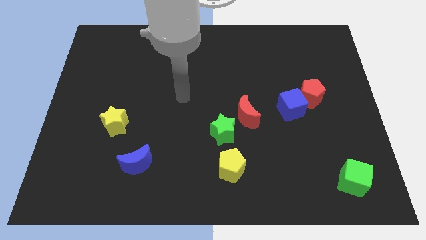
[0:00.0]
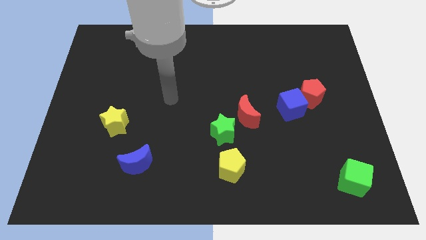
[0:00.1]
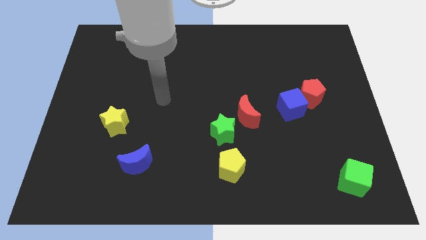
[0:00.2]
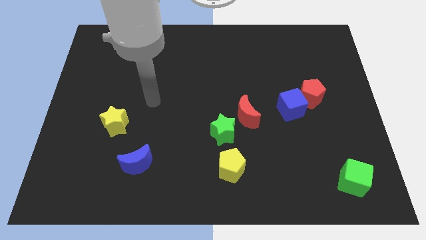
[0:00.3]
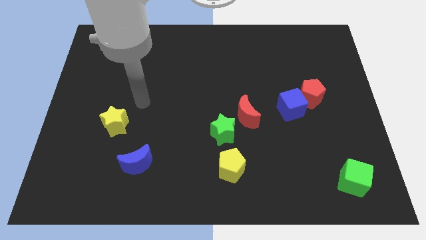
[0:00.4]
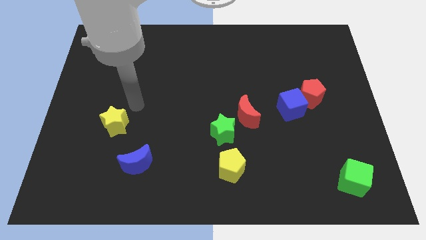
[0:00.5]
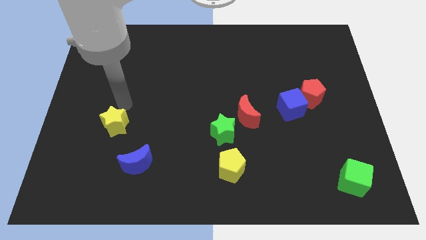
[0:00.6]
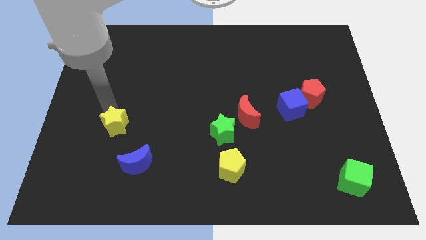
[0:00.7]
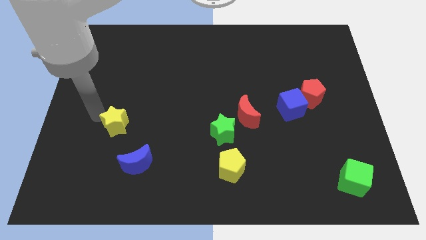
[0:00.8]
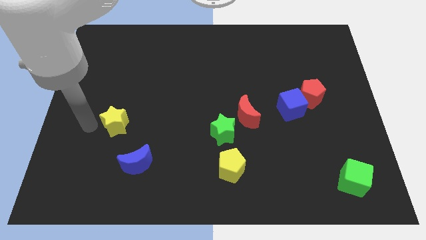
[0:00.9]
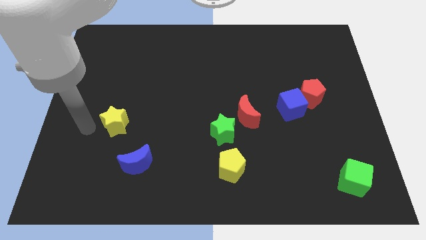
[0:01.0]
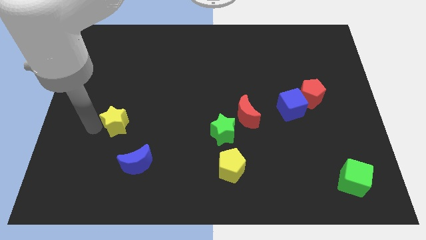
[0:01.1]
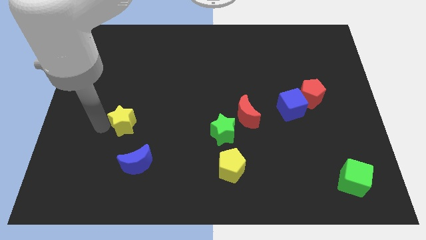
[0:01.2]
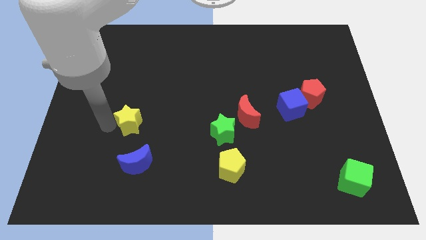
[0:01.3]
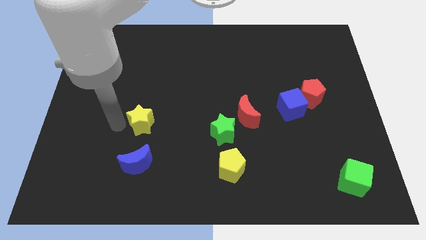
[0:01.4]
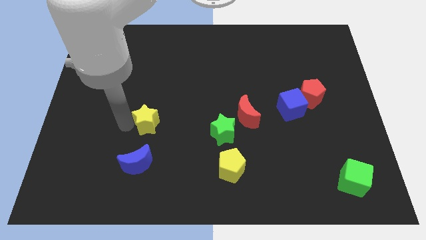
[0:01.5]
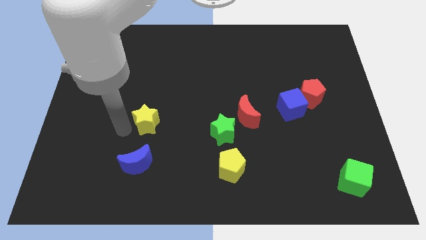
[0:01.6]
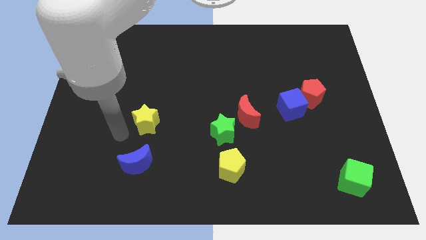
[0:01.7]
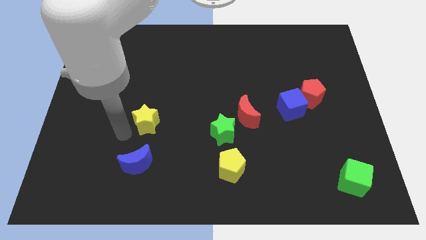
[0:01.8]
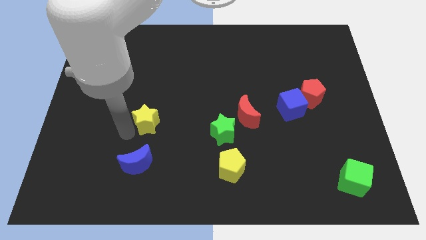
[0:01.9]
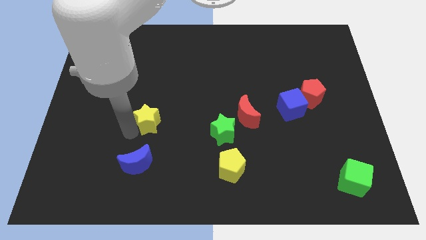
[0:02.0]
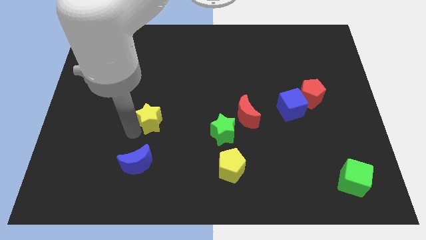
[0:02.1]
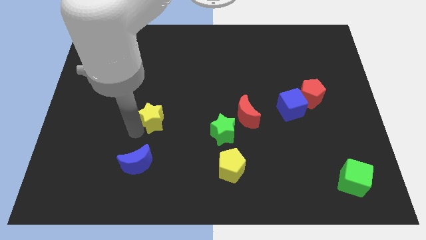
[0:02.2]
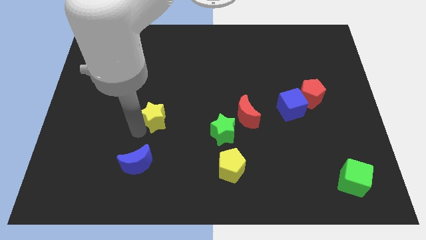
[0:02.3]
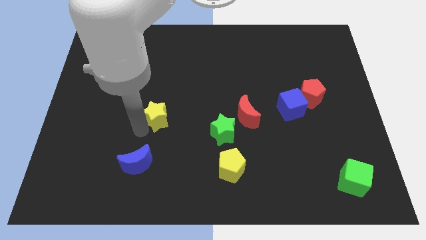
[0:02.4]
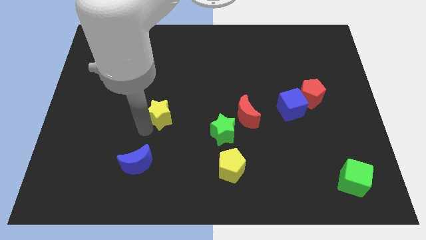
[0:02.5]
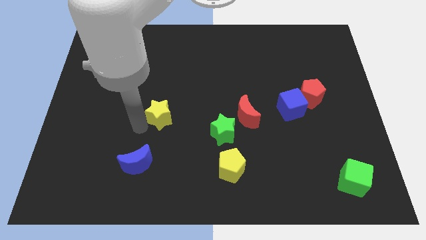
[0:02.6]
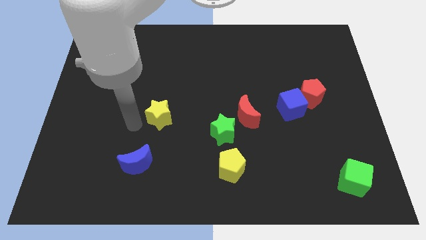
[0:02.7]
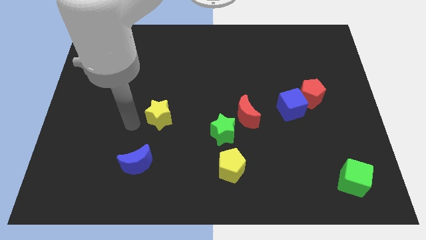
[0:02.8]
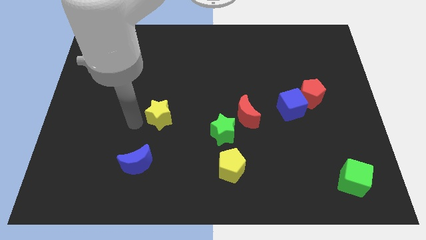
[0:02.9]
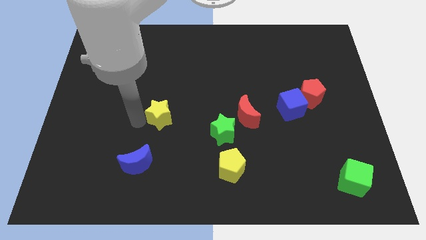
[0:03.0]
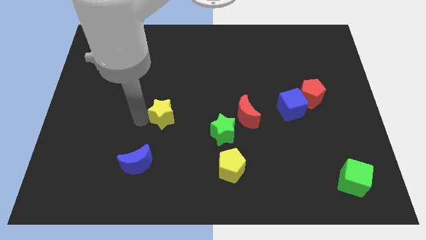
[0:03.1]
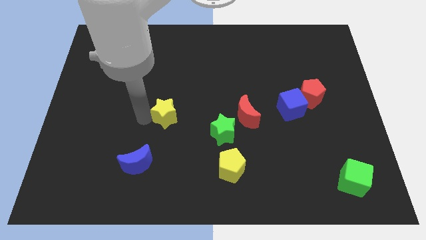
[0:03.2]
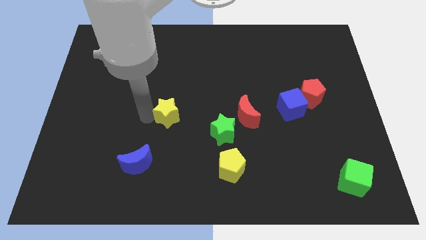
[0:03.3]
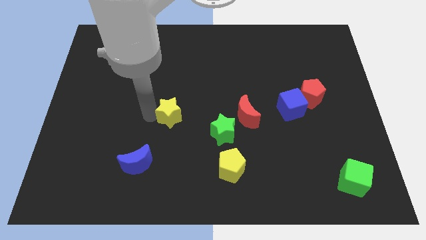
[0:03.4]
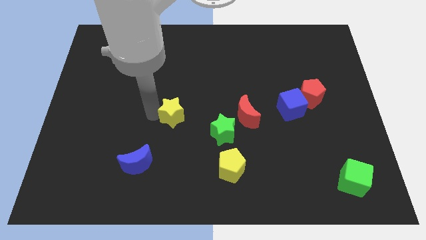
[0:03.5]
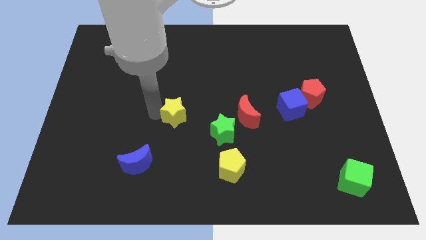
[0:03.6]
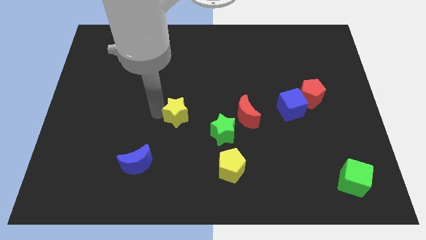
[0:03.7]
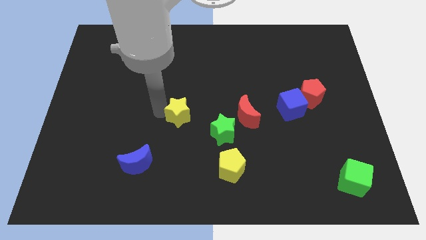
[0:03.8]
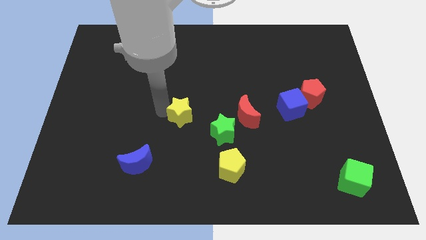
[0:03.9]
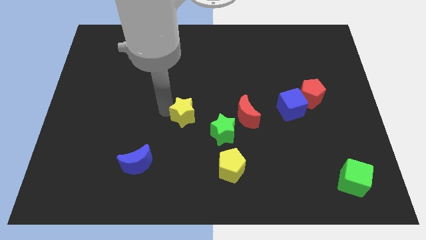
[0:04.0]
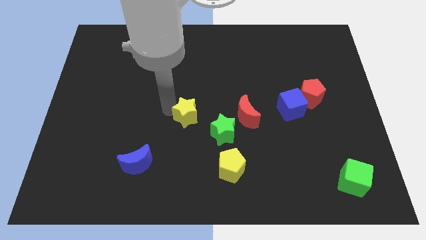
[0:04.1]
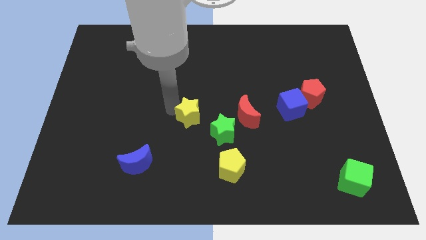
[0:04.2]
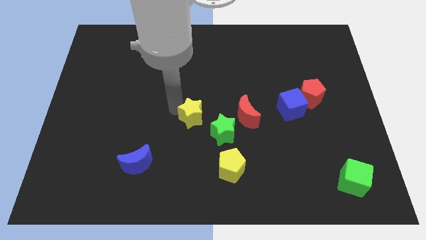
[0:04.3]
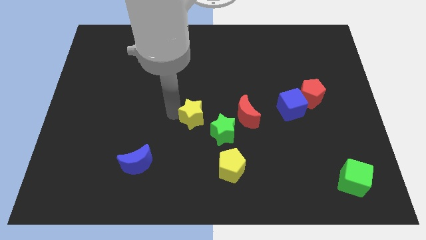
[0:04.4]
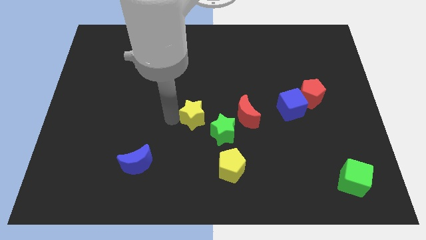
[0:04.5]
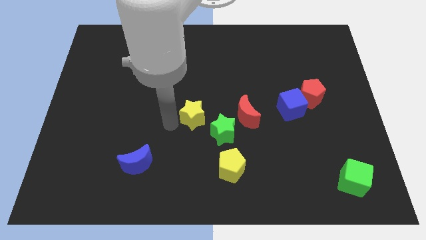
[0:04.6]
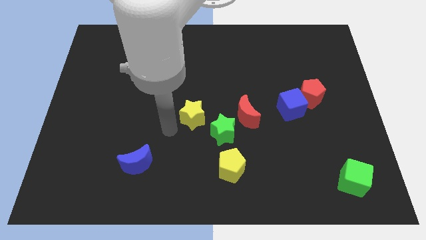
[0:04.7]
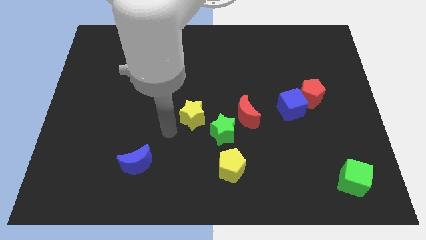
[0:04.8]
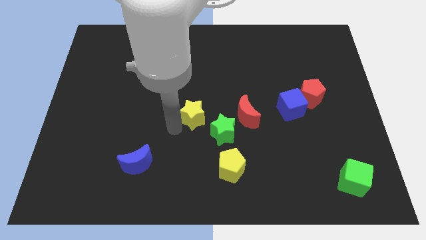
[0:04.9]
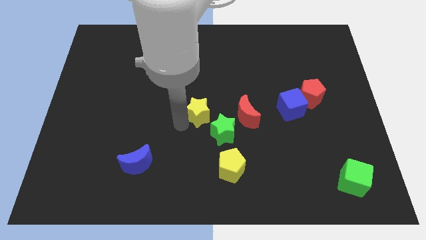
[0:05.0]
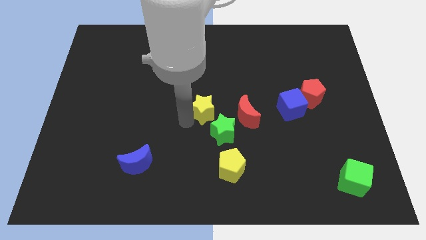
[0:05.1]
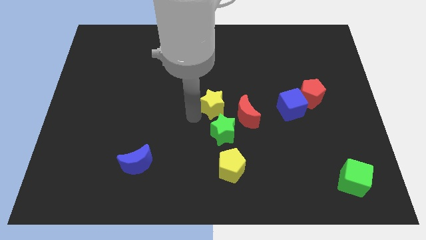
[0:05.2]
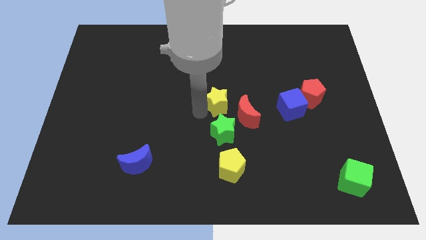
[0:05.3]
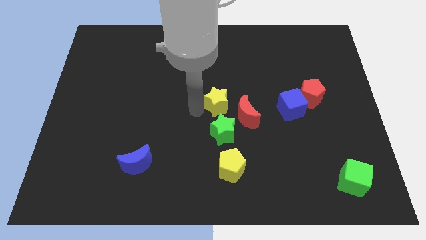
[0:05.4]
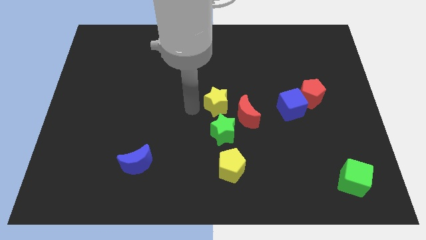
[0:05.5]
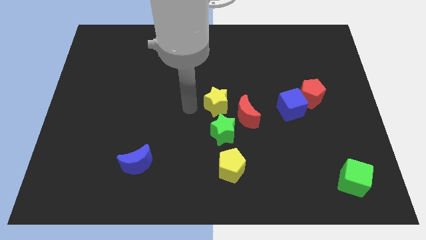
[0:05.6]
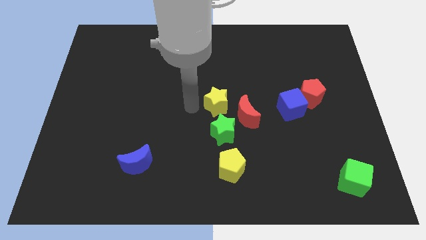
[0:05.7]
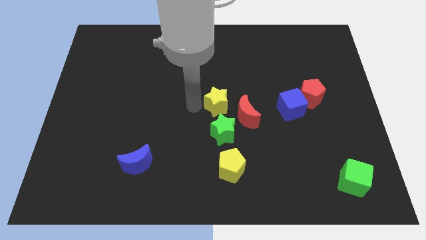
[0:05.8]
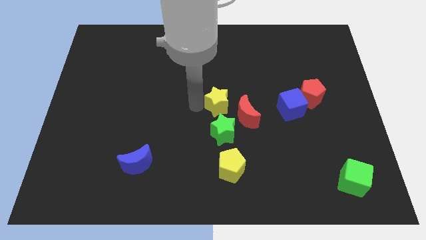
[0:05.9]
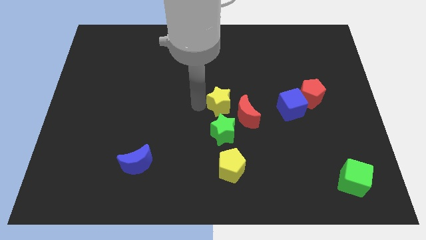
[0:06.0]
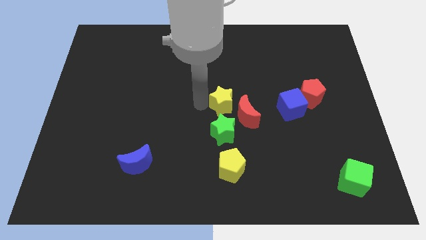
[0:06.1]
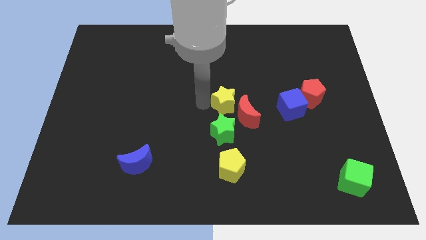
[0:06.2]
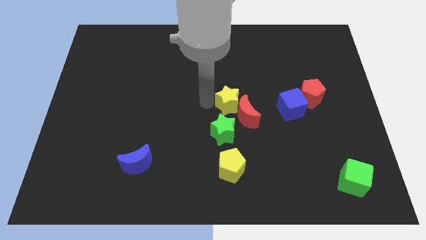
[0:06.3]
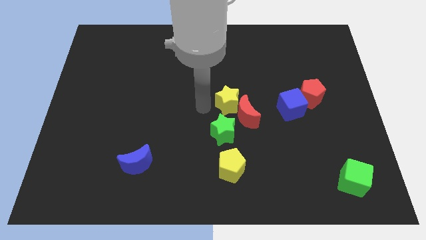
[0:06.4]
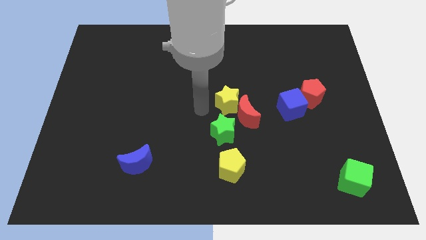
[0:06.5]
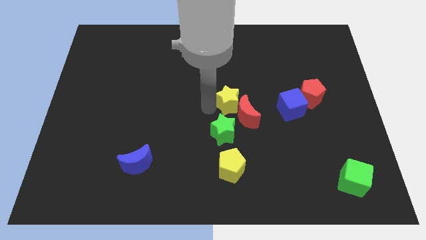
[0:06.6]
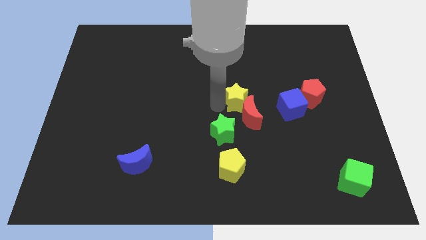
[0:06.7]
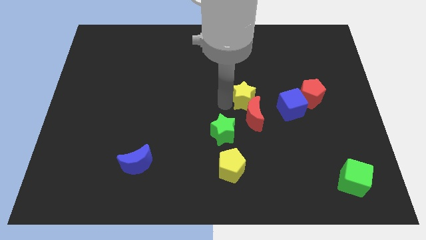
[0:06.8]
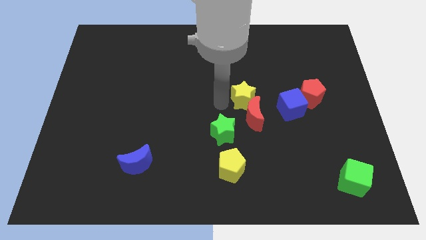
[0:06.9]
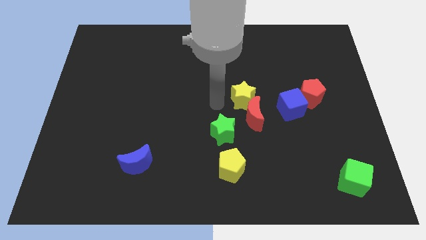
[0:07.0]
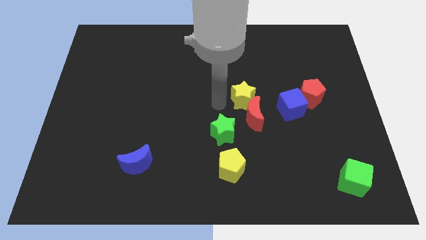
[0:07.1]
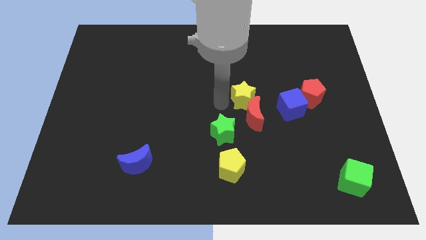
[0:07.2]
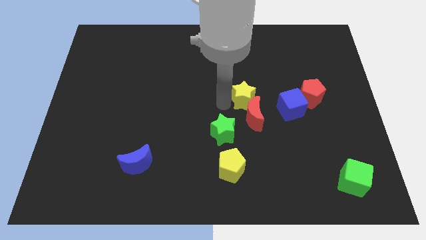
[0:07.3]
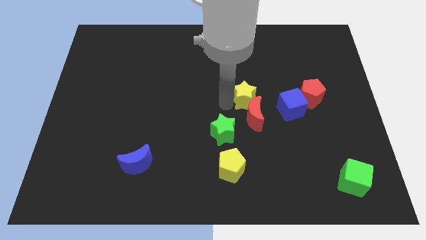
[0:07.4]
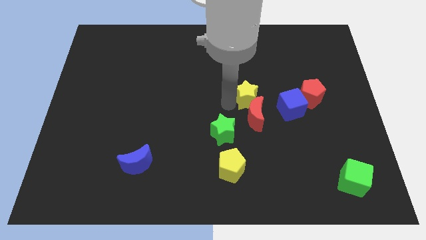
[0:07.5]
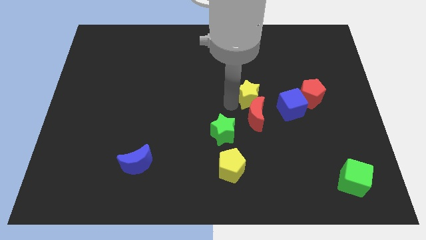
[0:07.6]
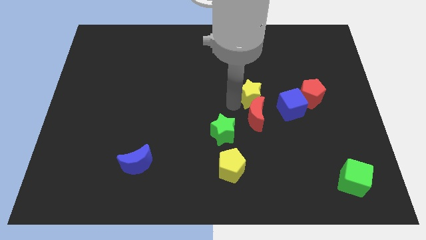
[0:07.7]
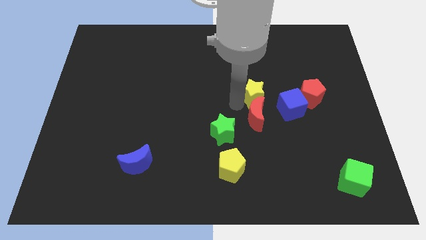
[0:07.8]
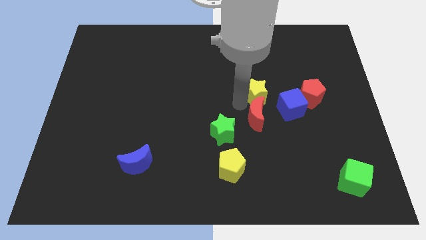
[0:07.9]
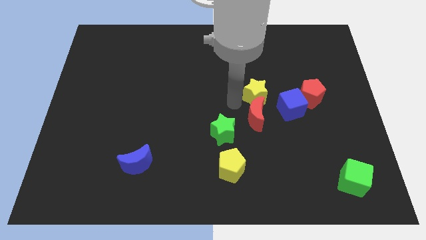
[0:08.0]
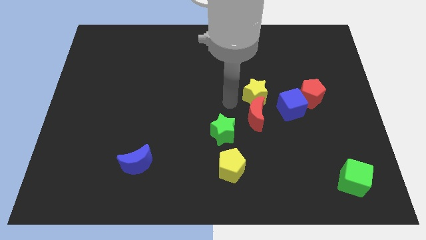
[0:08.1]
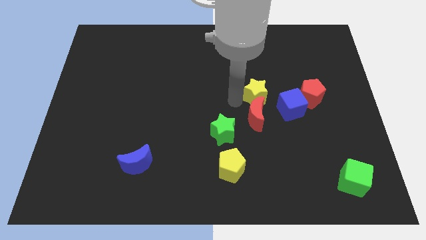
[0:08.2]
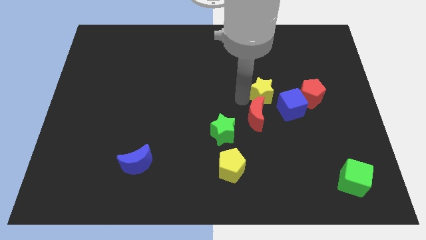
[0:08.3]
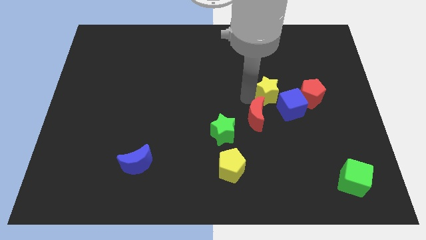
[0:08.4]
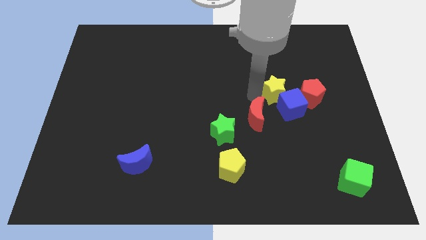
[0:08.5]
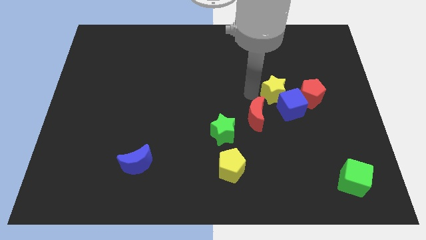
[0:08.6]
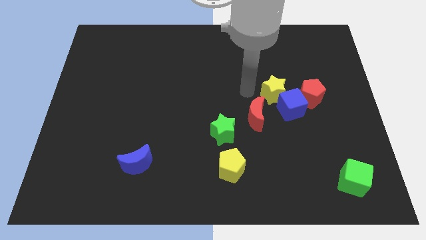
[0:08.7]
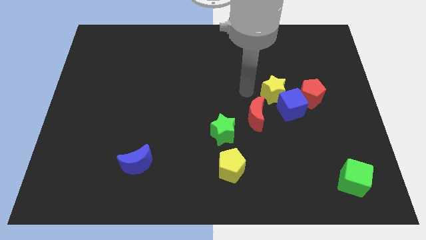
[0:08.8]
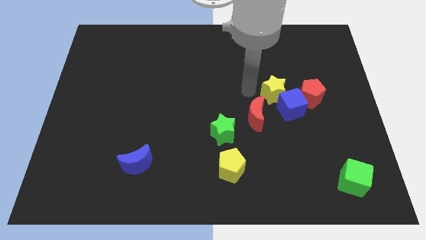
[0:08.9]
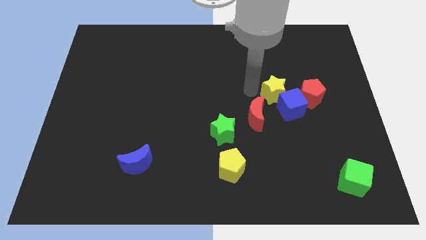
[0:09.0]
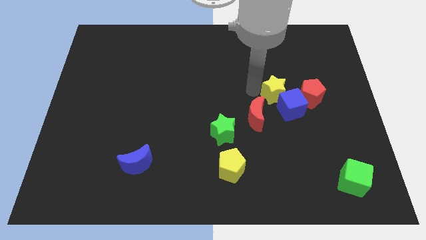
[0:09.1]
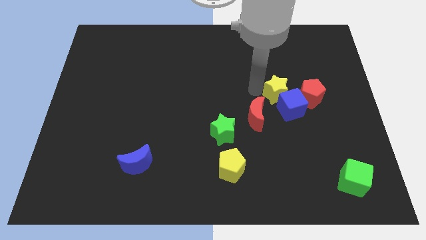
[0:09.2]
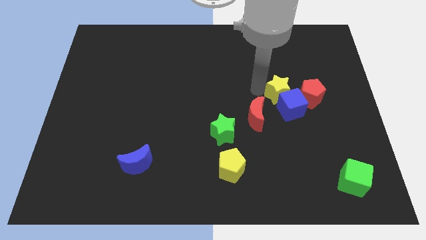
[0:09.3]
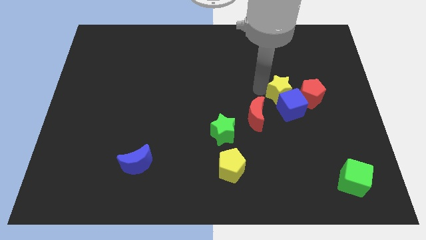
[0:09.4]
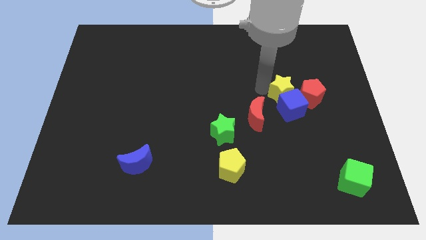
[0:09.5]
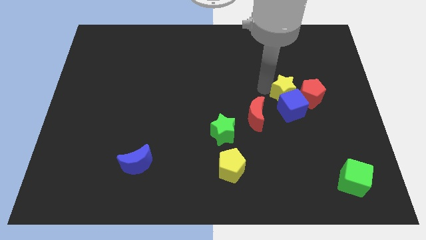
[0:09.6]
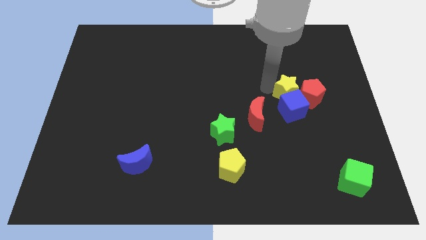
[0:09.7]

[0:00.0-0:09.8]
slide the yellow star next to the red pentagon
